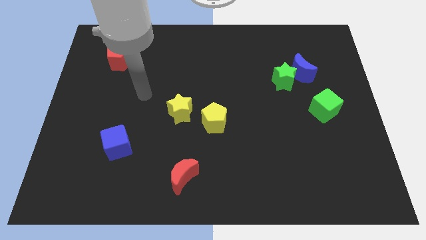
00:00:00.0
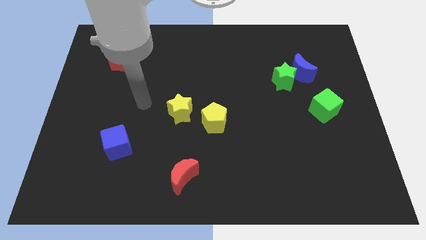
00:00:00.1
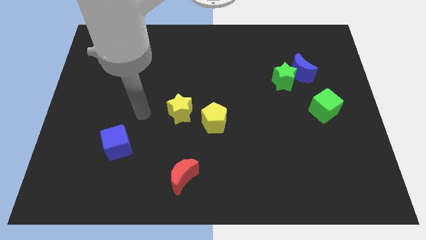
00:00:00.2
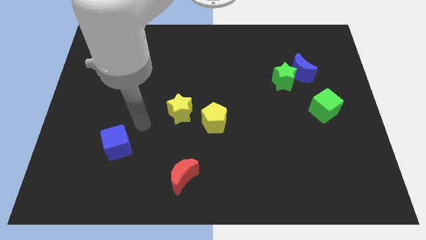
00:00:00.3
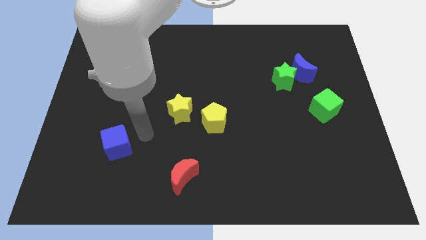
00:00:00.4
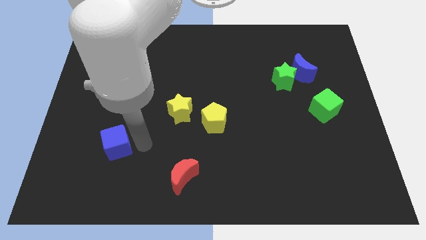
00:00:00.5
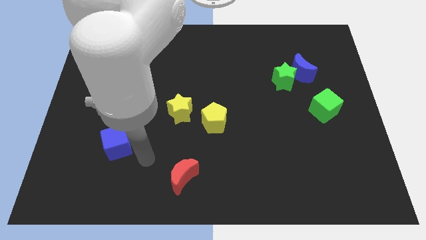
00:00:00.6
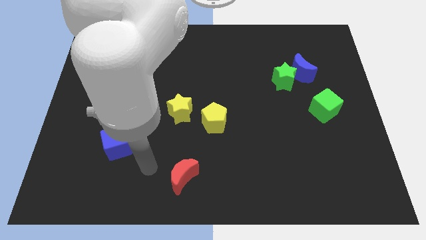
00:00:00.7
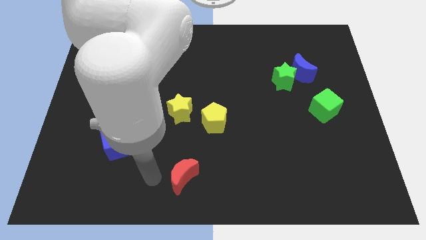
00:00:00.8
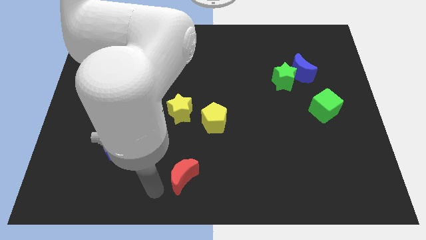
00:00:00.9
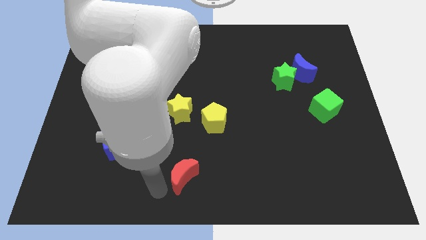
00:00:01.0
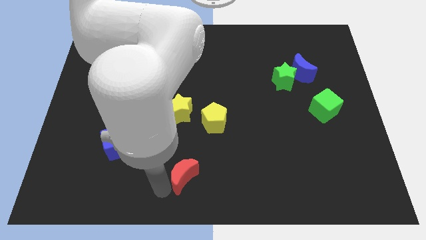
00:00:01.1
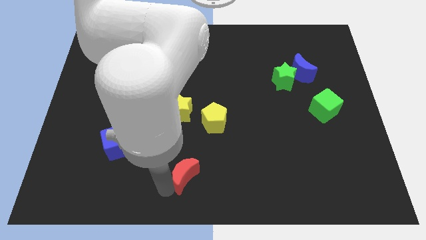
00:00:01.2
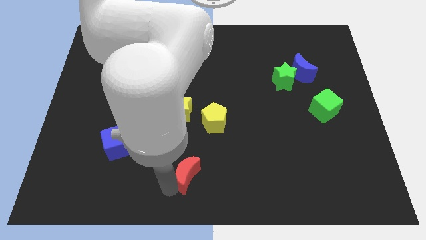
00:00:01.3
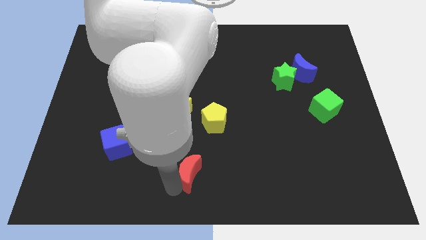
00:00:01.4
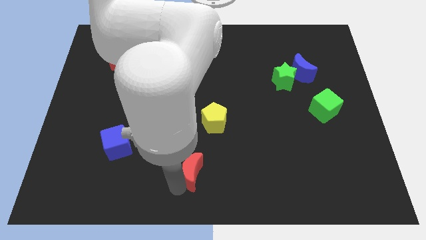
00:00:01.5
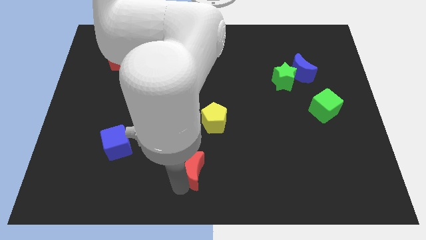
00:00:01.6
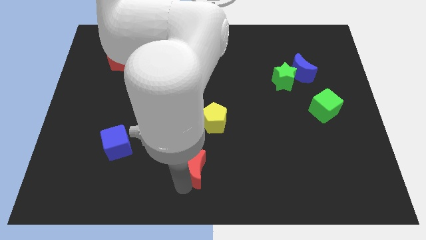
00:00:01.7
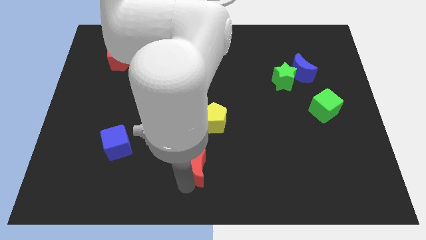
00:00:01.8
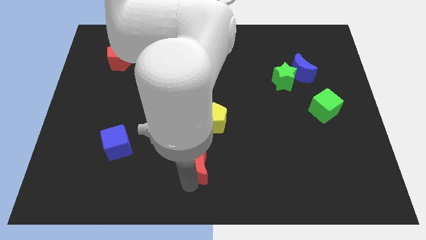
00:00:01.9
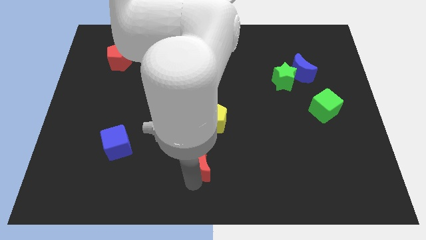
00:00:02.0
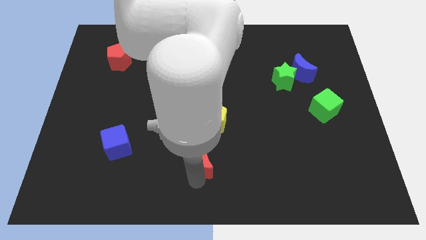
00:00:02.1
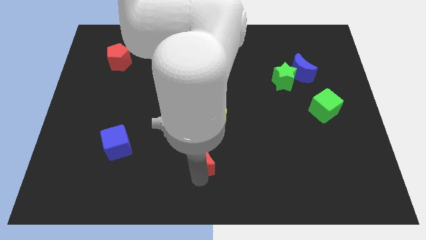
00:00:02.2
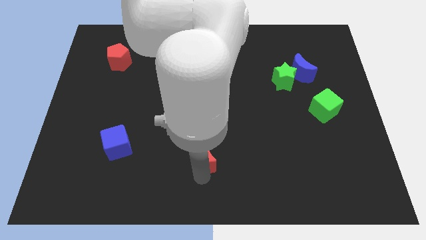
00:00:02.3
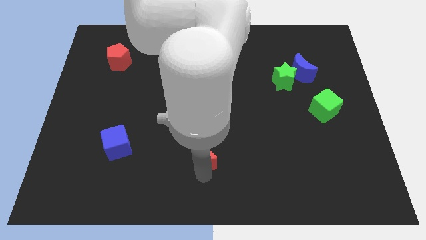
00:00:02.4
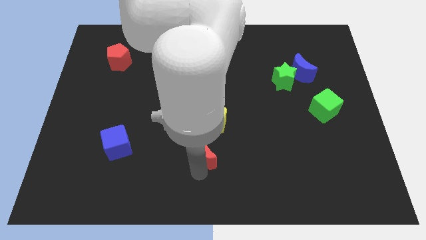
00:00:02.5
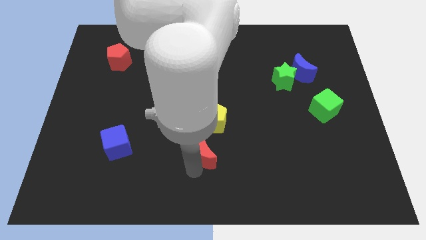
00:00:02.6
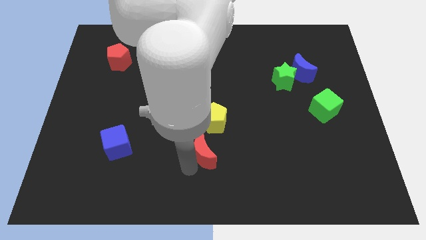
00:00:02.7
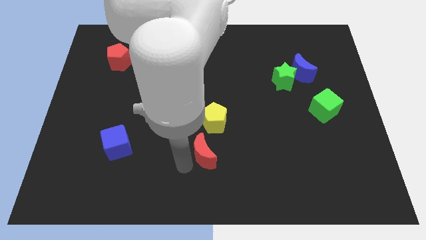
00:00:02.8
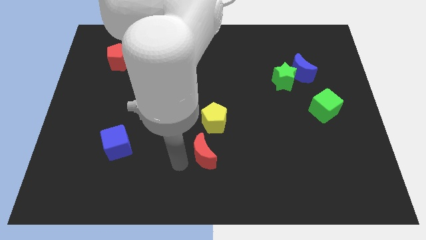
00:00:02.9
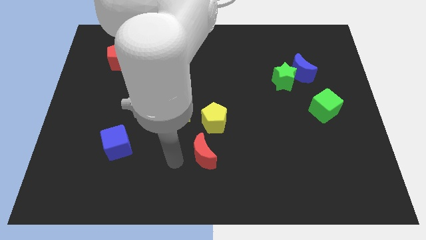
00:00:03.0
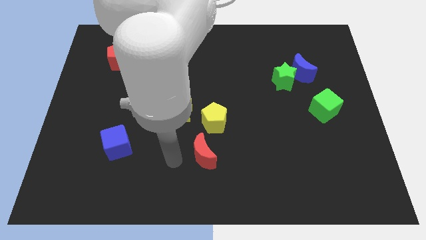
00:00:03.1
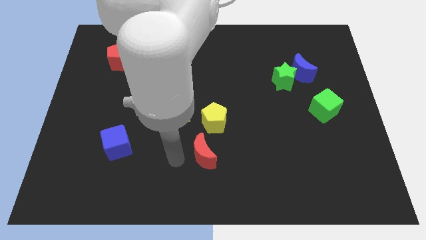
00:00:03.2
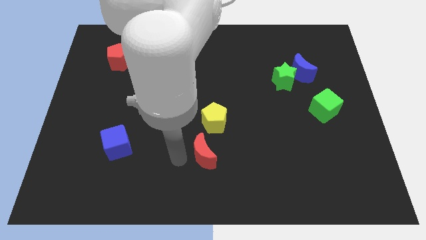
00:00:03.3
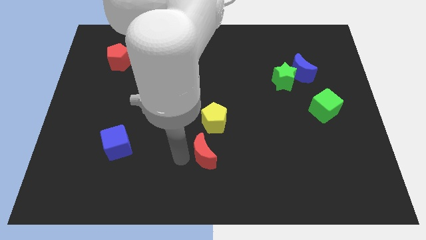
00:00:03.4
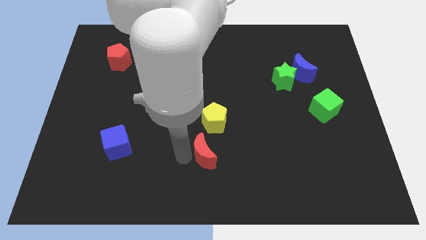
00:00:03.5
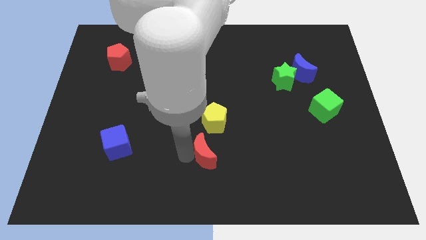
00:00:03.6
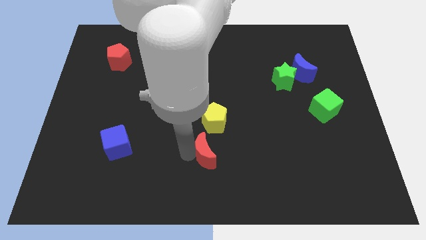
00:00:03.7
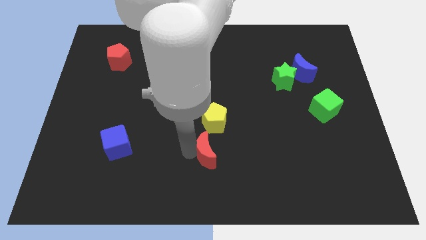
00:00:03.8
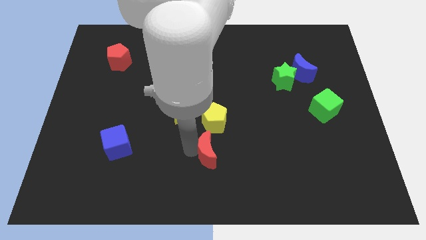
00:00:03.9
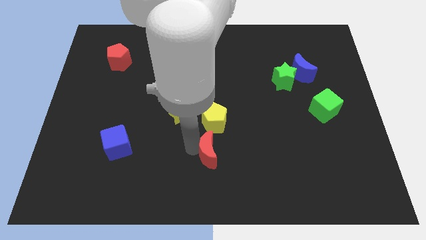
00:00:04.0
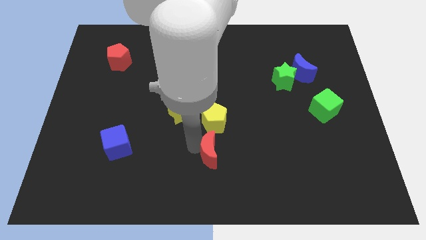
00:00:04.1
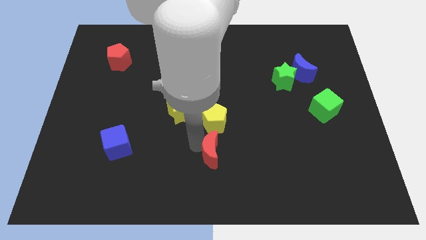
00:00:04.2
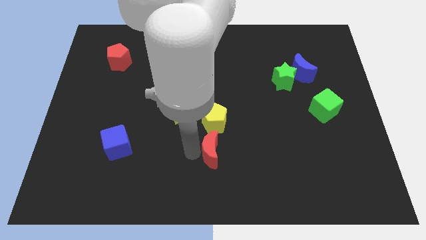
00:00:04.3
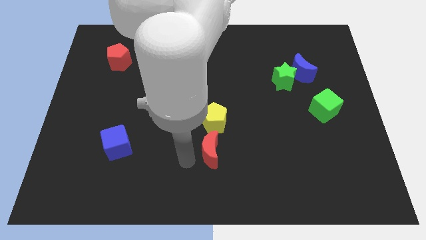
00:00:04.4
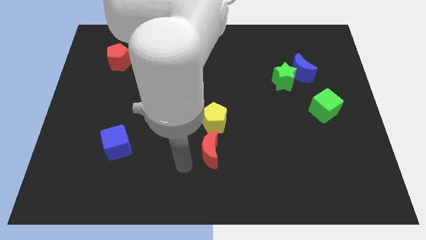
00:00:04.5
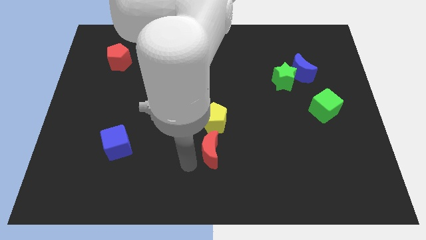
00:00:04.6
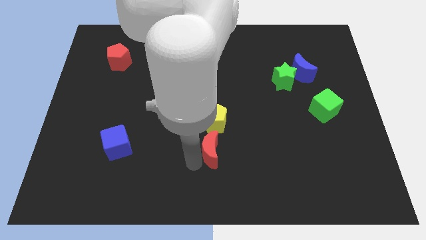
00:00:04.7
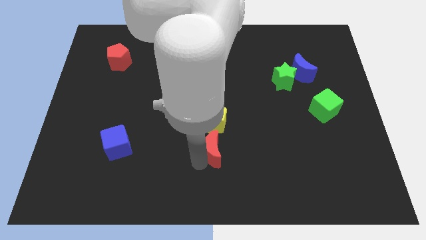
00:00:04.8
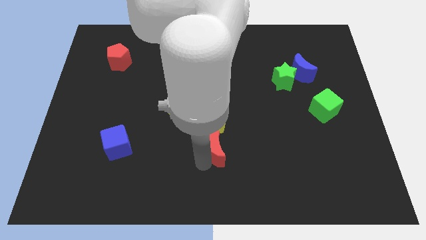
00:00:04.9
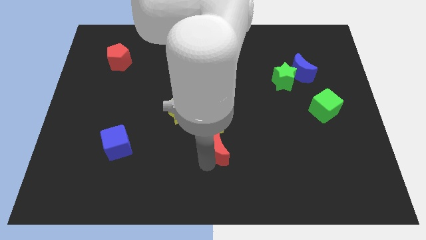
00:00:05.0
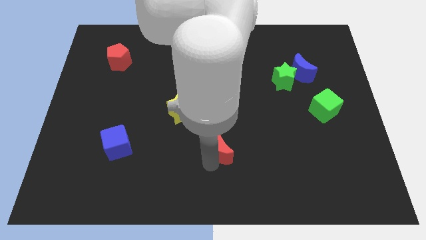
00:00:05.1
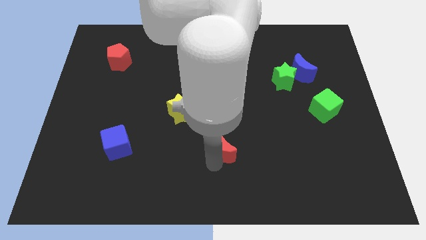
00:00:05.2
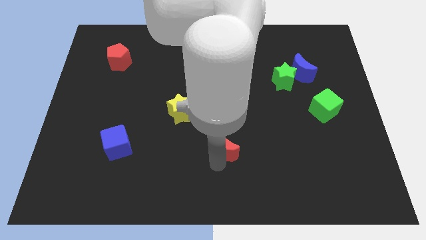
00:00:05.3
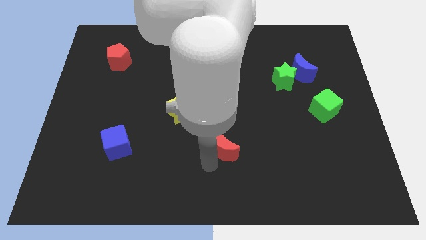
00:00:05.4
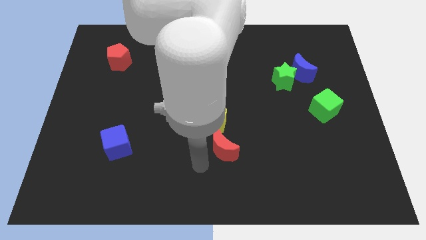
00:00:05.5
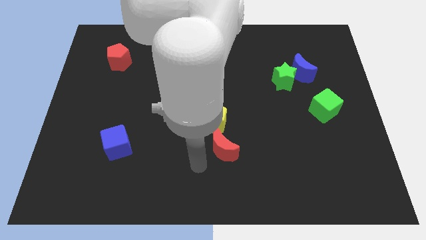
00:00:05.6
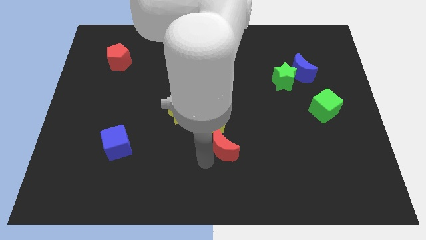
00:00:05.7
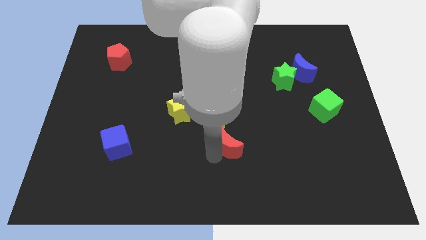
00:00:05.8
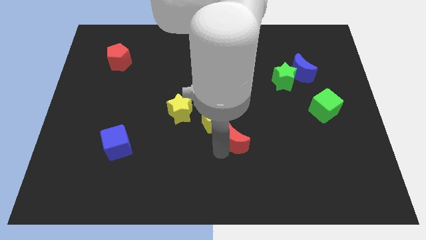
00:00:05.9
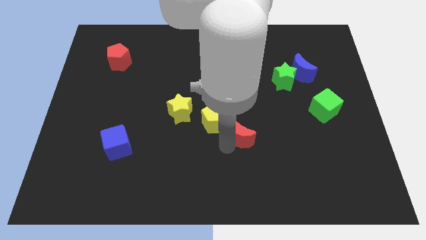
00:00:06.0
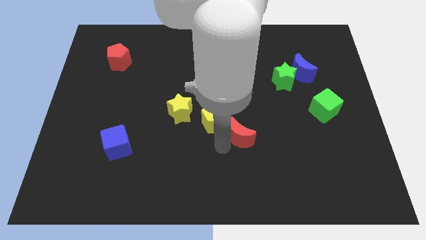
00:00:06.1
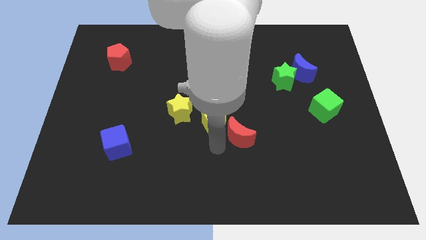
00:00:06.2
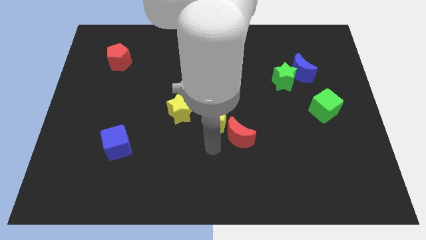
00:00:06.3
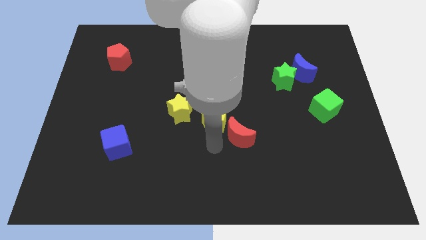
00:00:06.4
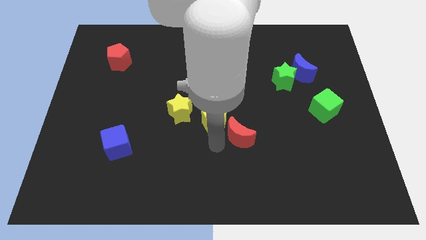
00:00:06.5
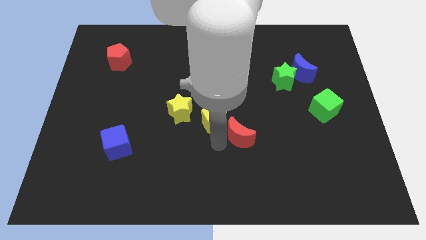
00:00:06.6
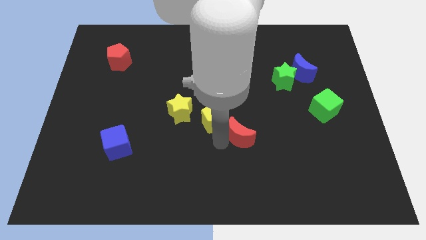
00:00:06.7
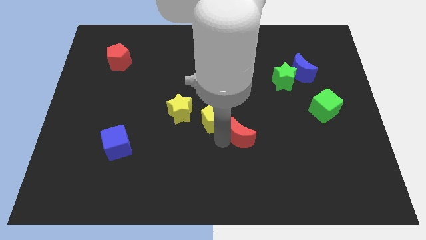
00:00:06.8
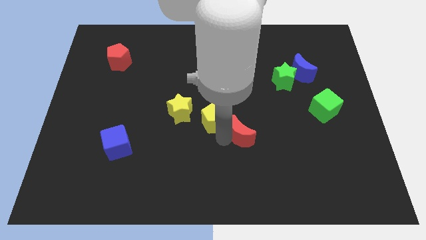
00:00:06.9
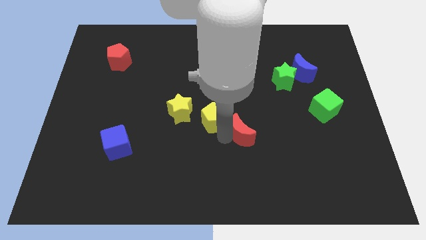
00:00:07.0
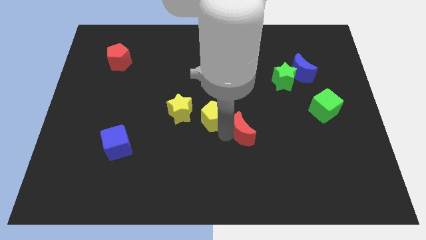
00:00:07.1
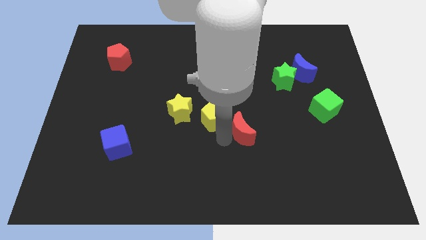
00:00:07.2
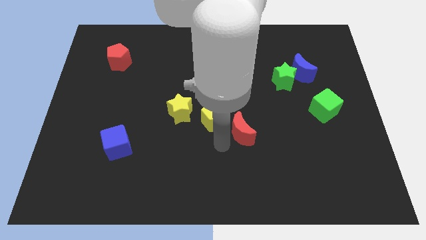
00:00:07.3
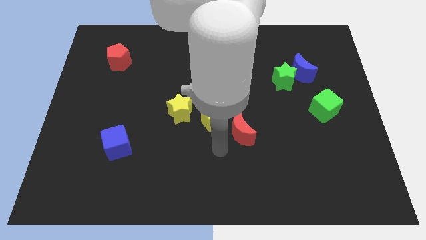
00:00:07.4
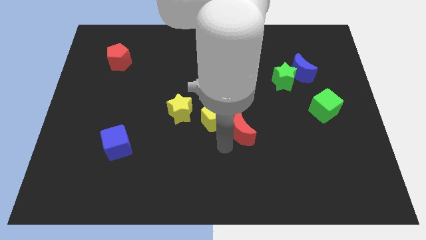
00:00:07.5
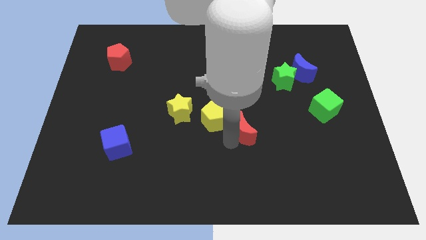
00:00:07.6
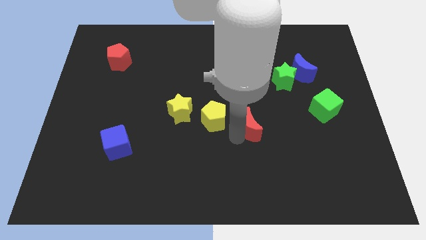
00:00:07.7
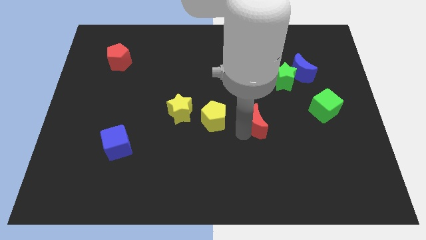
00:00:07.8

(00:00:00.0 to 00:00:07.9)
push the red moon diagonally upwards and to the right
